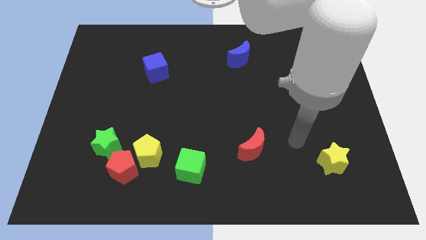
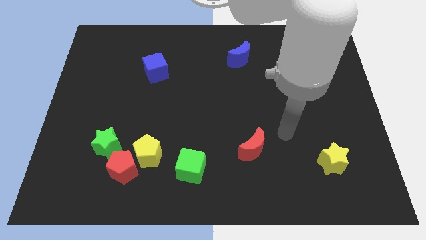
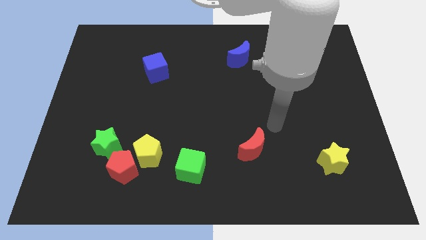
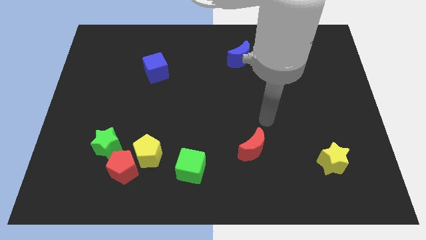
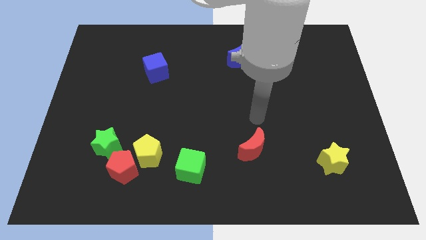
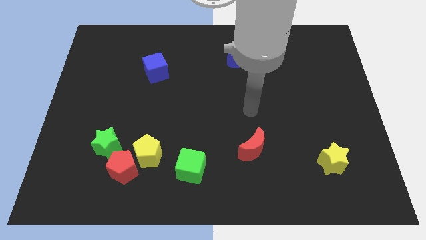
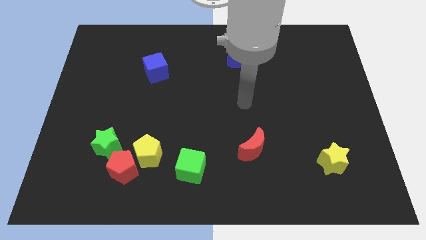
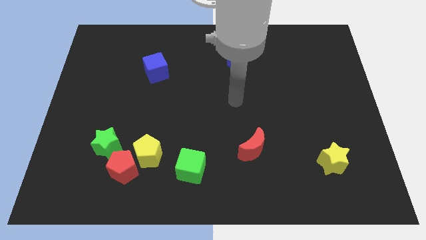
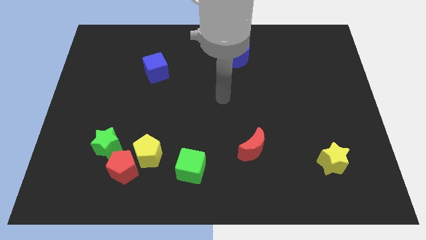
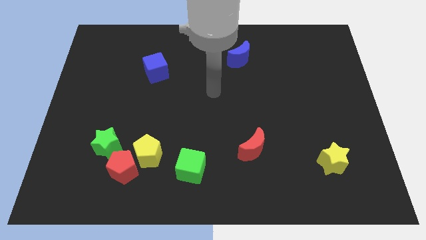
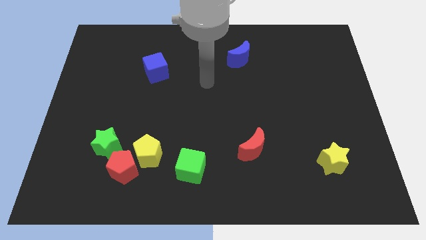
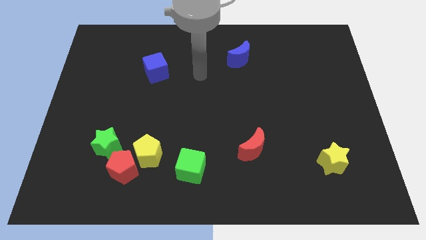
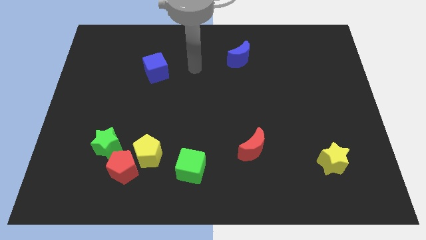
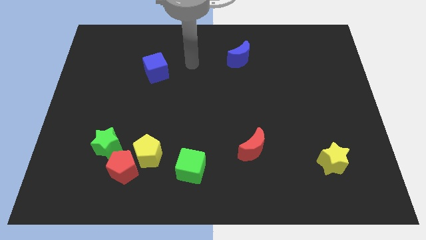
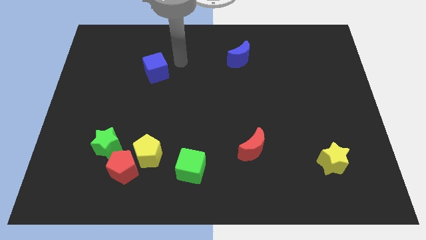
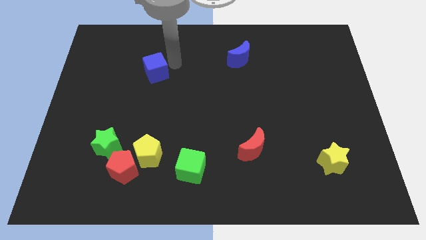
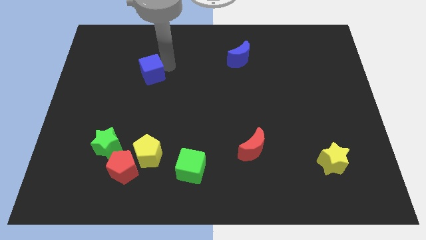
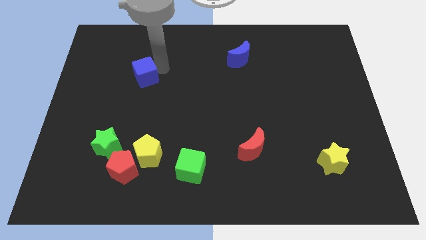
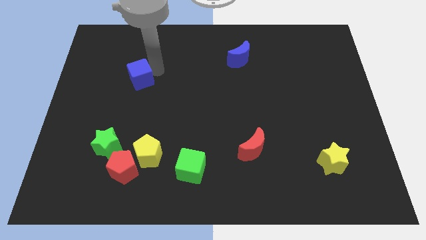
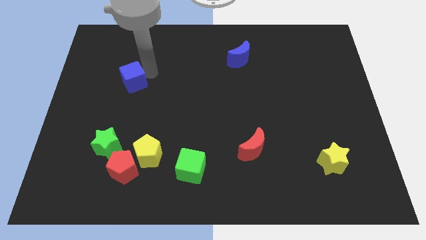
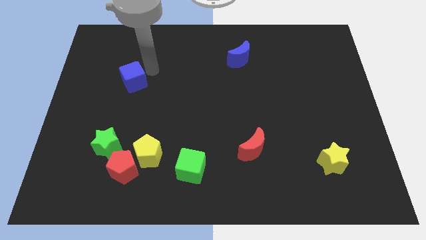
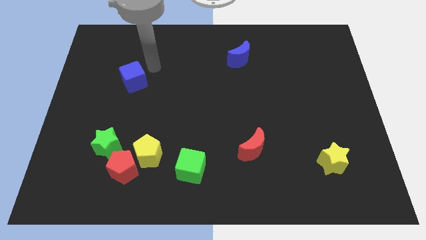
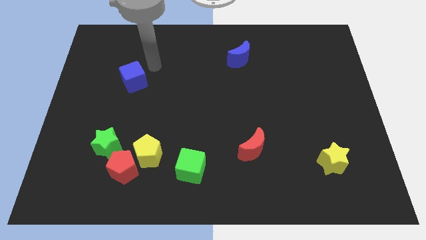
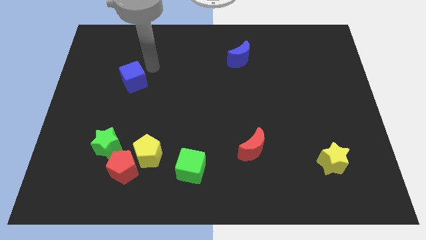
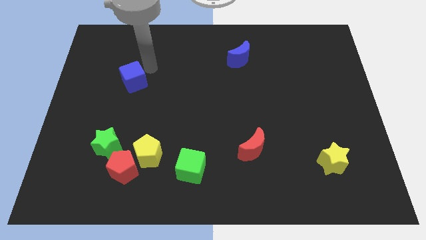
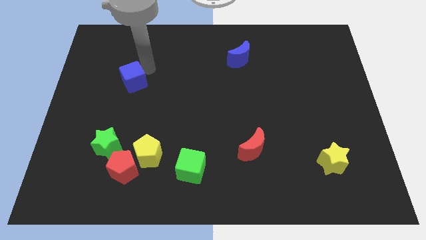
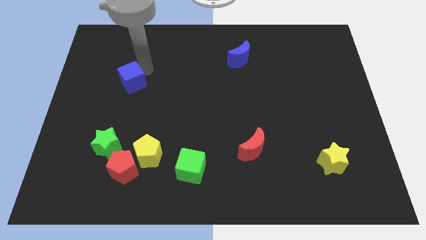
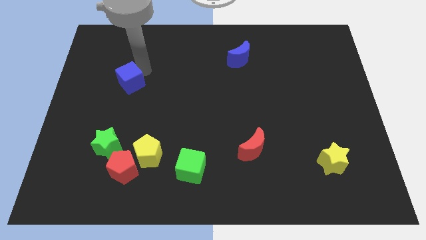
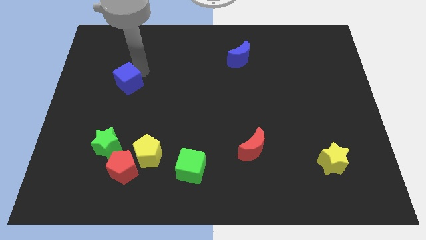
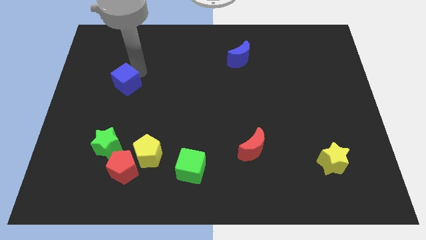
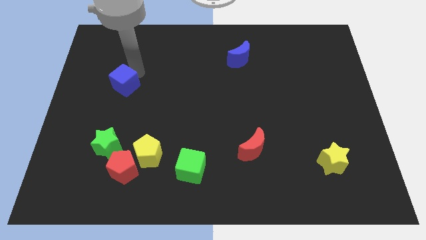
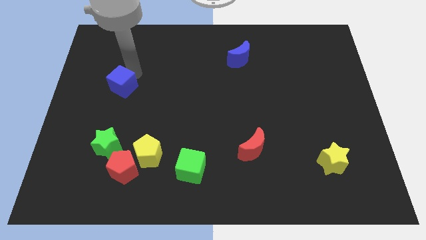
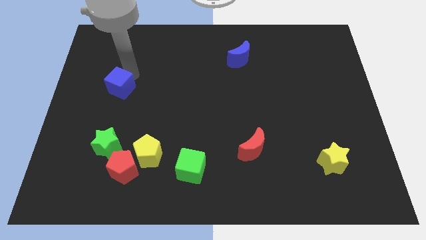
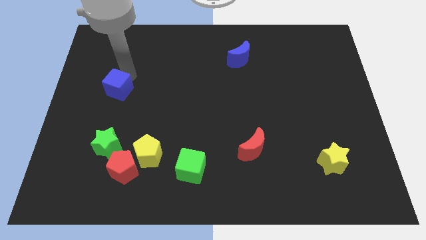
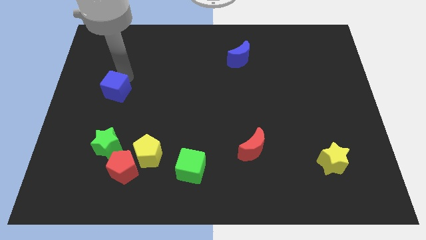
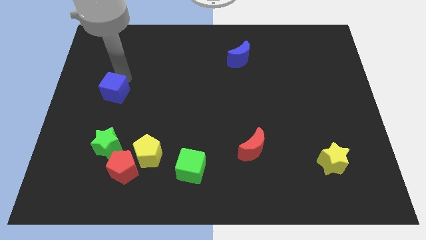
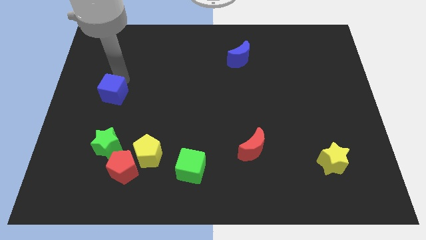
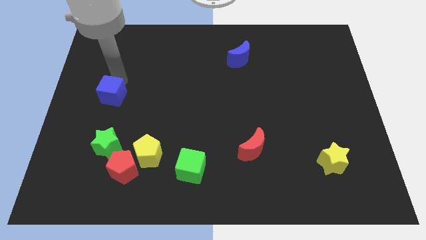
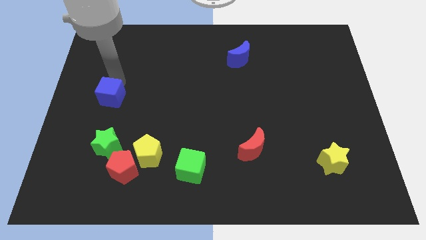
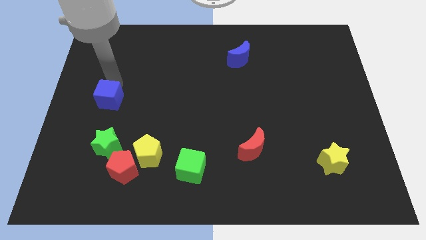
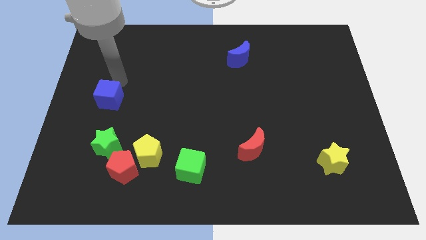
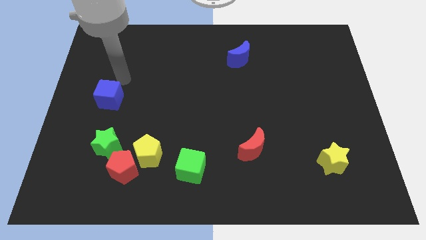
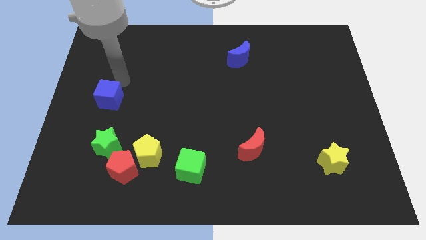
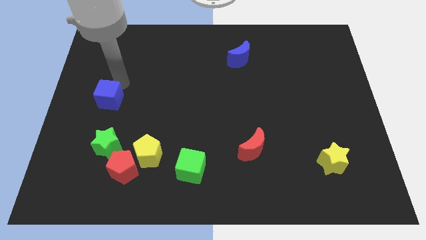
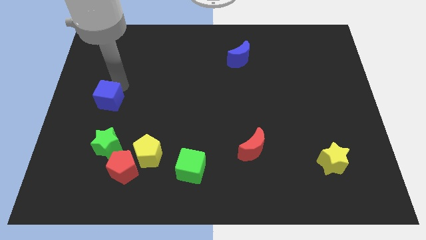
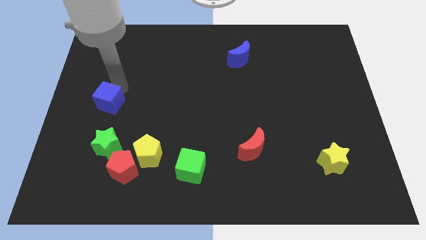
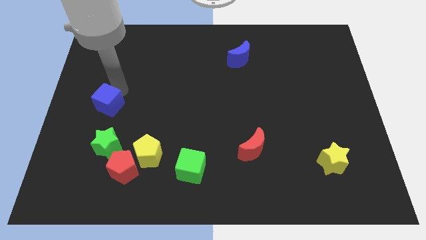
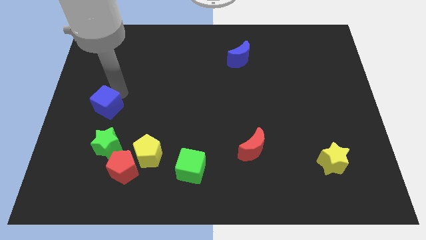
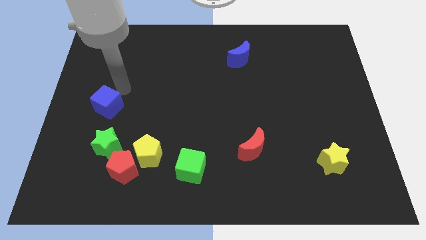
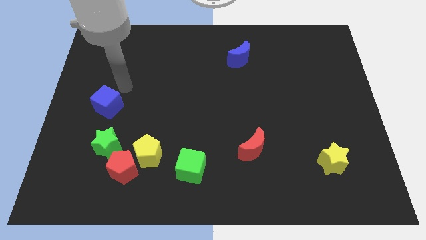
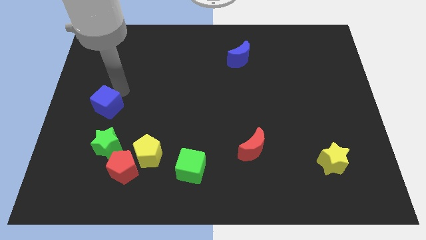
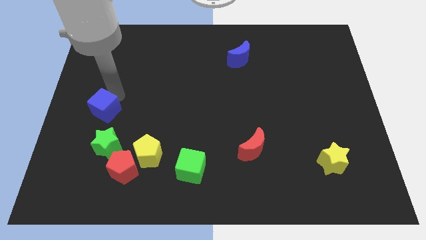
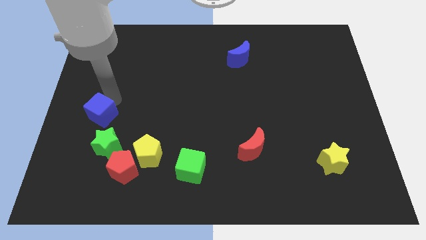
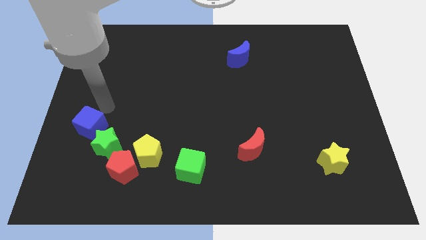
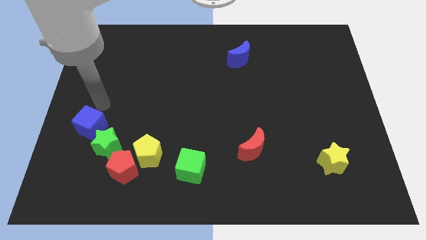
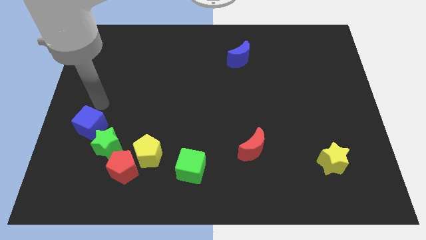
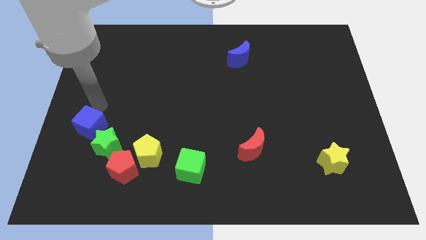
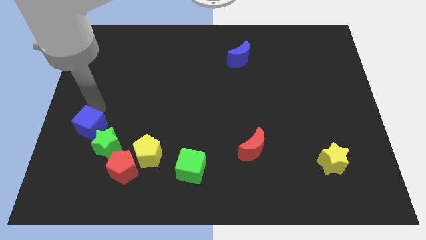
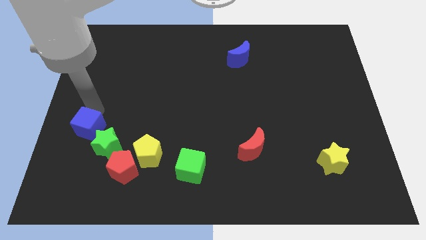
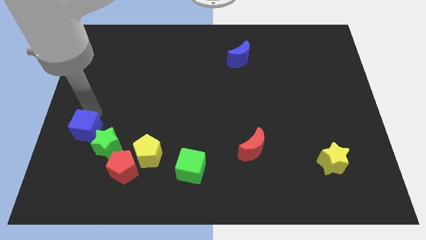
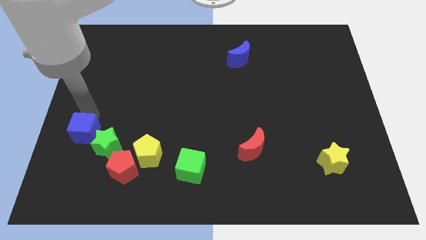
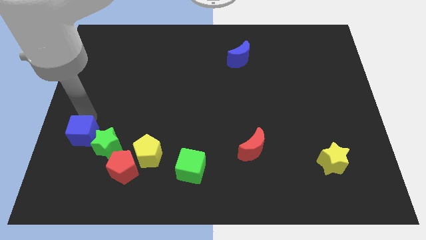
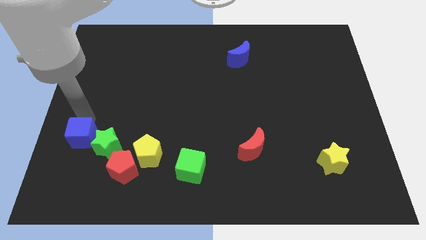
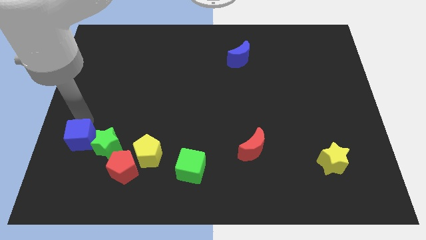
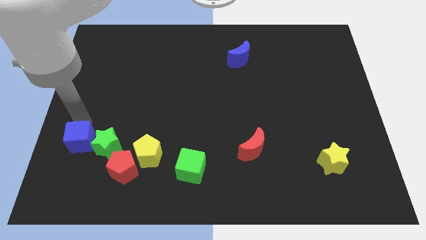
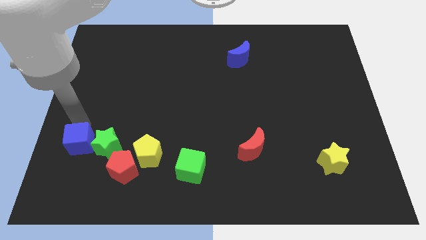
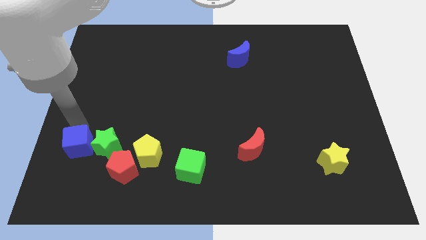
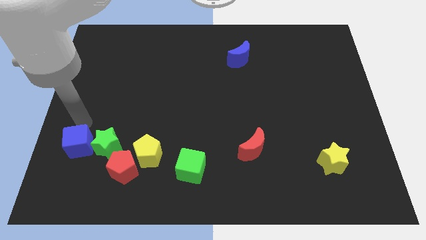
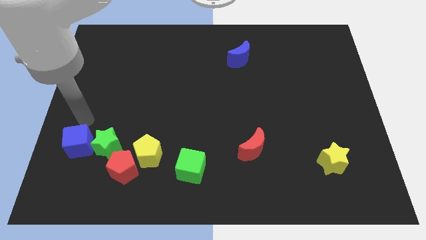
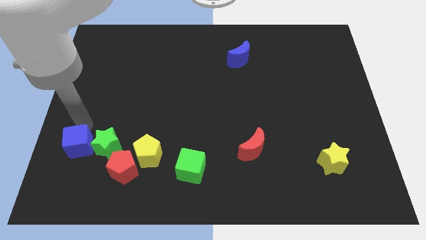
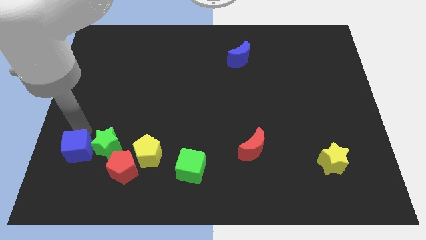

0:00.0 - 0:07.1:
slide the blue cube left of the red pentagon
